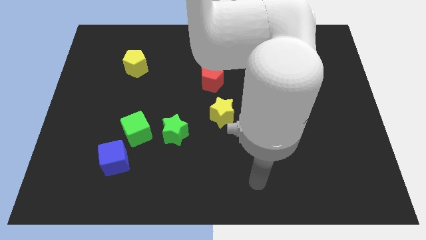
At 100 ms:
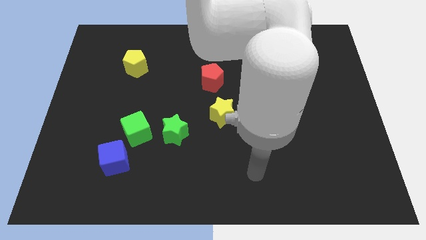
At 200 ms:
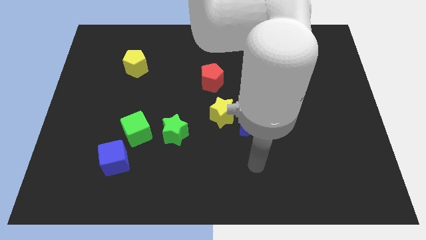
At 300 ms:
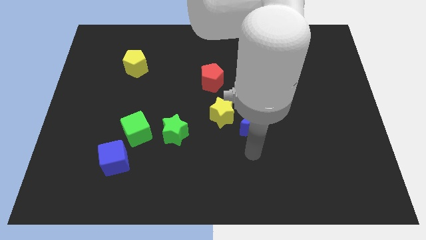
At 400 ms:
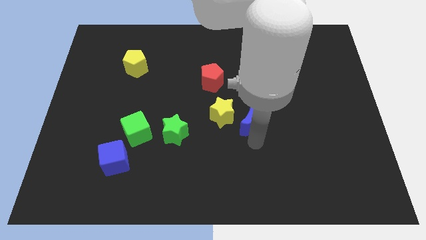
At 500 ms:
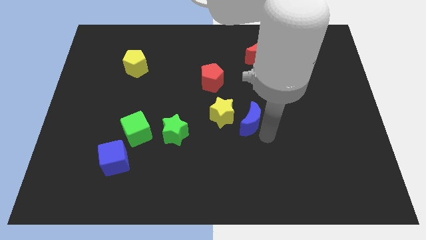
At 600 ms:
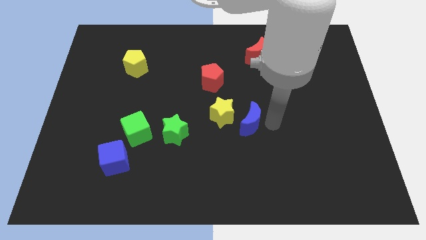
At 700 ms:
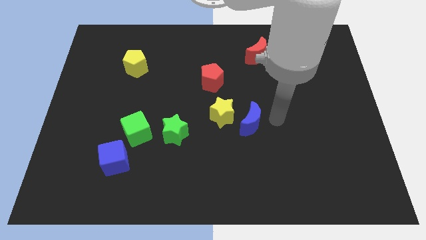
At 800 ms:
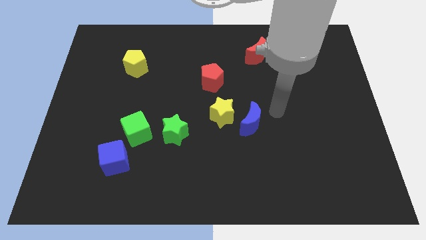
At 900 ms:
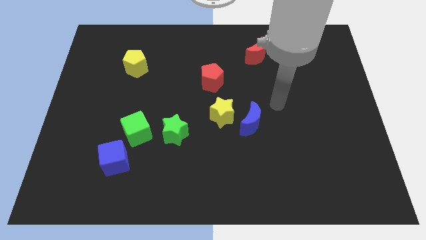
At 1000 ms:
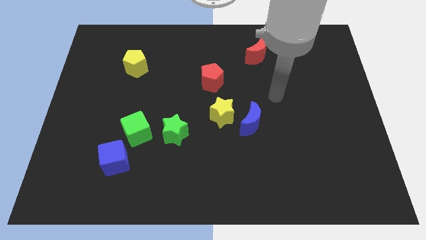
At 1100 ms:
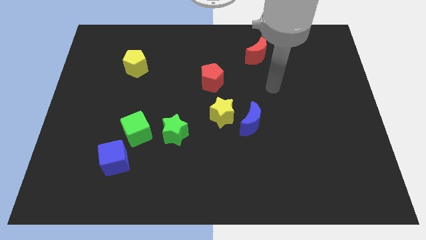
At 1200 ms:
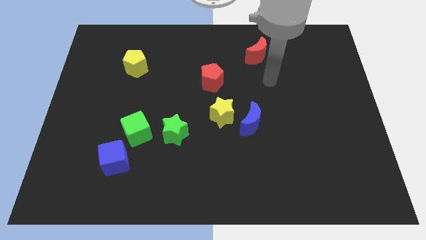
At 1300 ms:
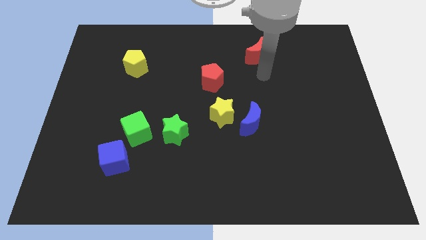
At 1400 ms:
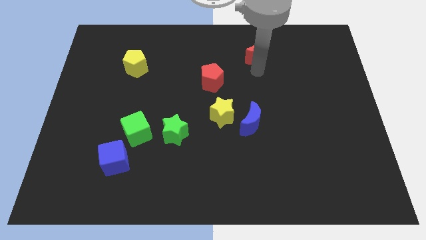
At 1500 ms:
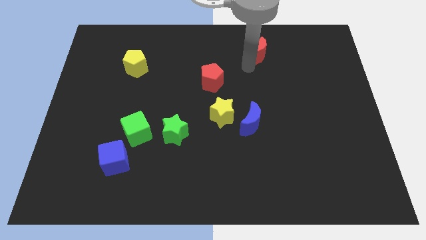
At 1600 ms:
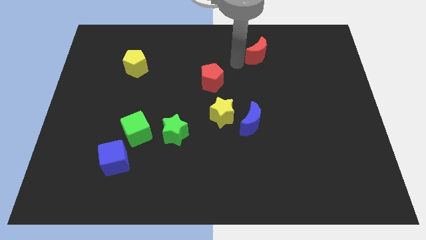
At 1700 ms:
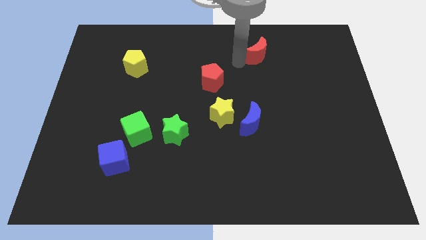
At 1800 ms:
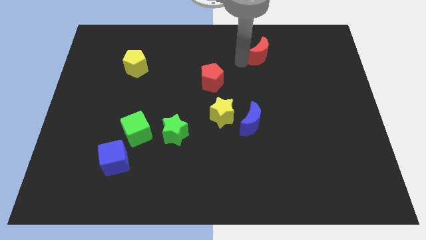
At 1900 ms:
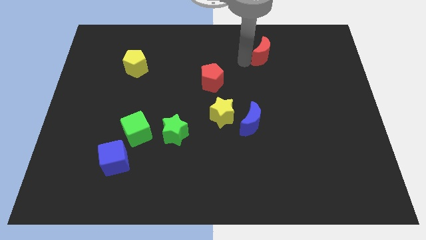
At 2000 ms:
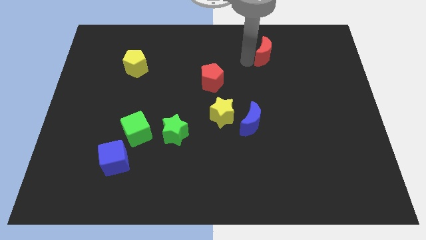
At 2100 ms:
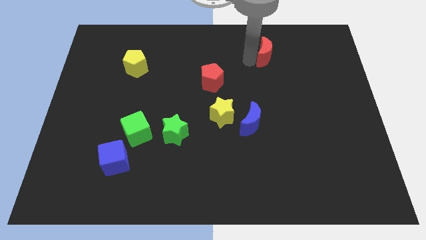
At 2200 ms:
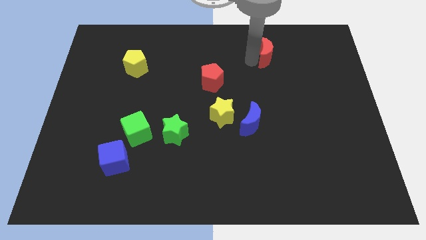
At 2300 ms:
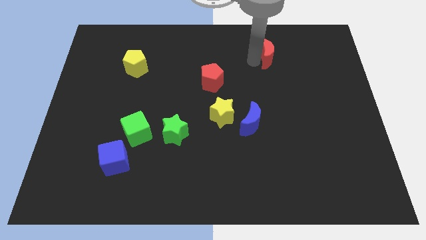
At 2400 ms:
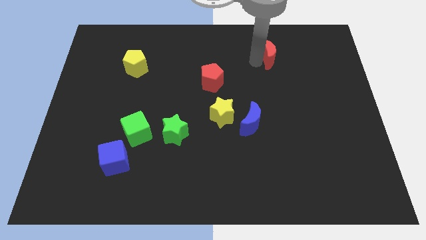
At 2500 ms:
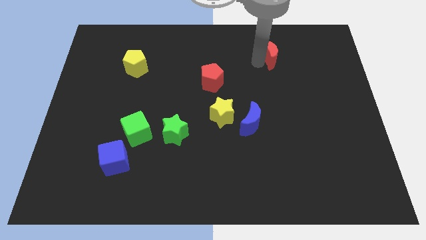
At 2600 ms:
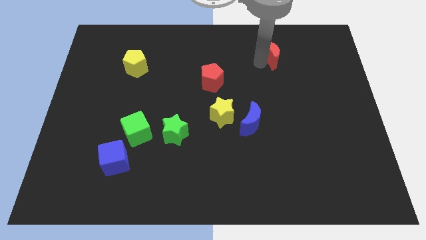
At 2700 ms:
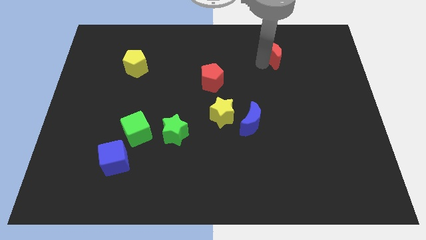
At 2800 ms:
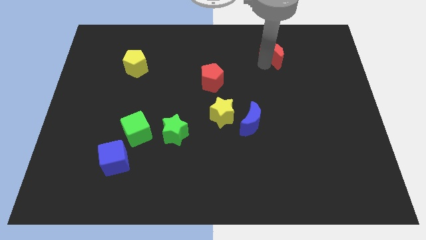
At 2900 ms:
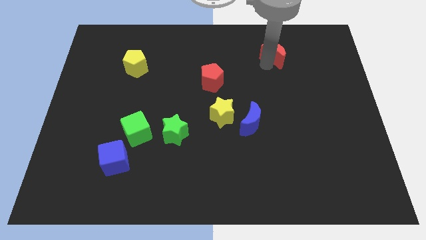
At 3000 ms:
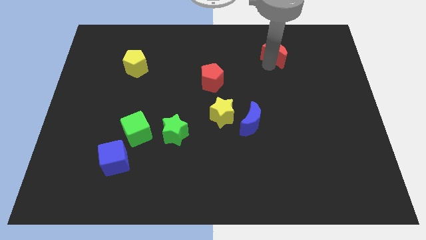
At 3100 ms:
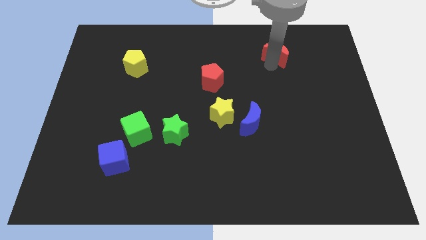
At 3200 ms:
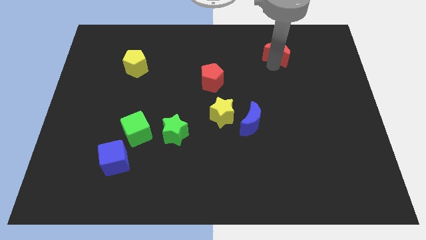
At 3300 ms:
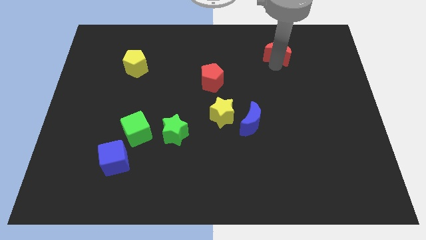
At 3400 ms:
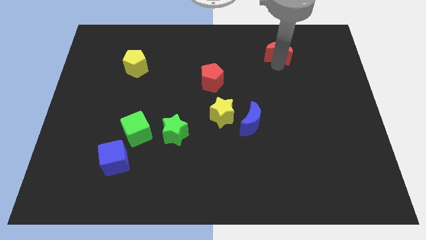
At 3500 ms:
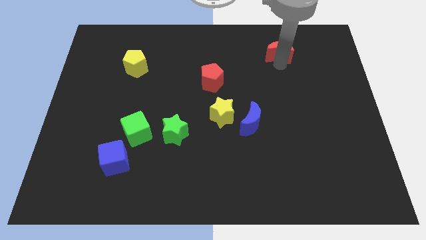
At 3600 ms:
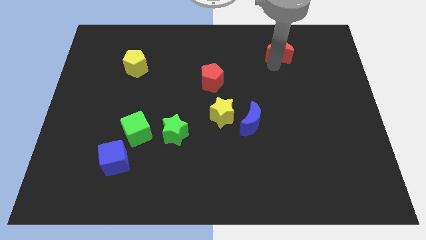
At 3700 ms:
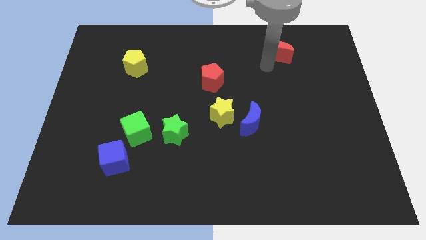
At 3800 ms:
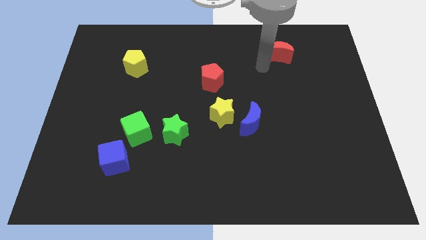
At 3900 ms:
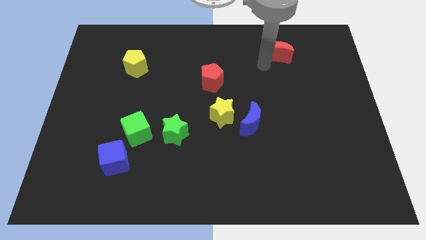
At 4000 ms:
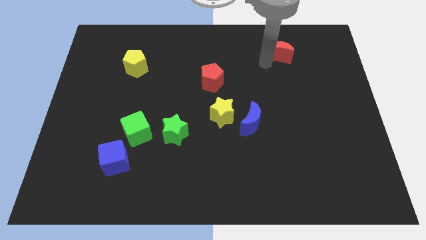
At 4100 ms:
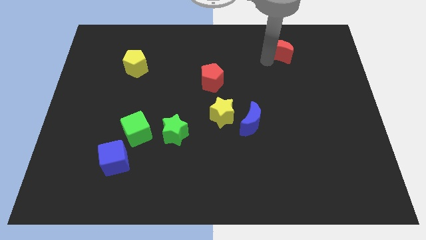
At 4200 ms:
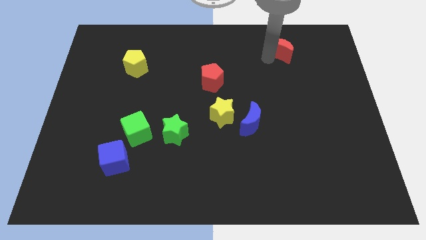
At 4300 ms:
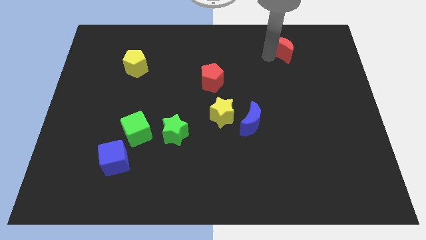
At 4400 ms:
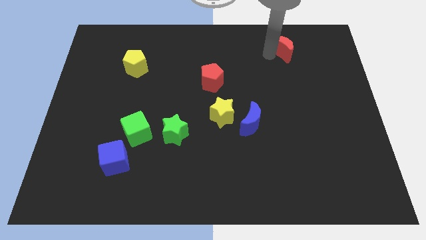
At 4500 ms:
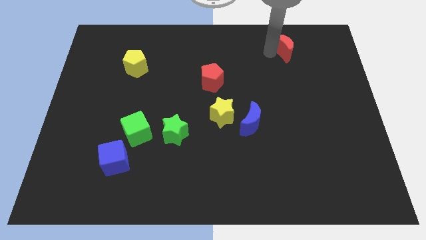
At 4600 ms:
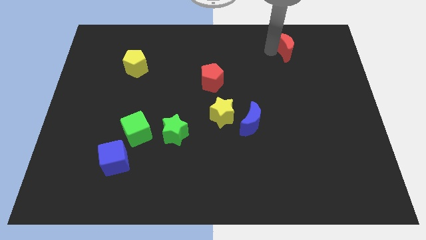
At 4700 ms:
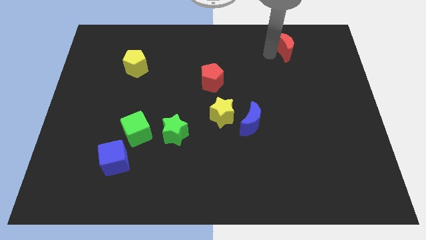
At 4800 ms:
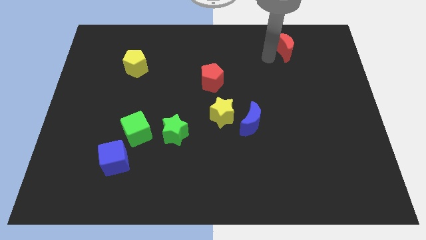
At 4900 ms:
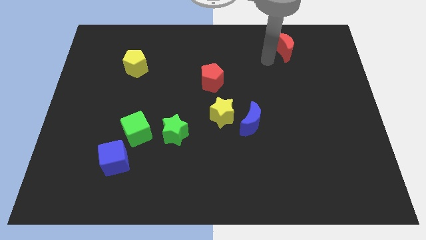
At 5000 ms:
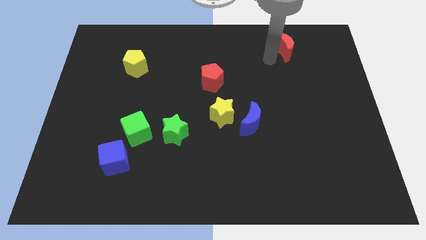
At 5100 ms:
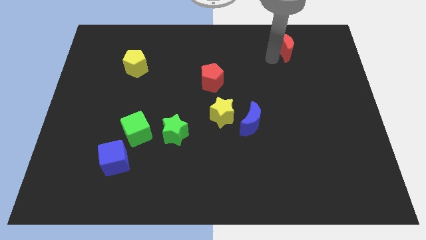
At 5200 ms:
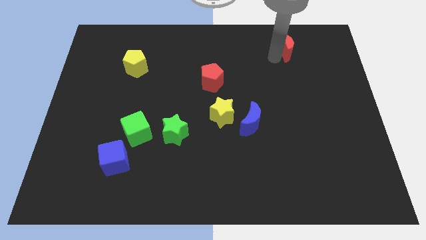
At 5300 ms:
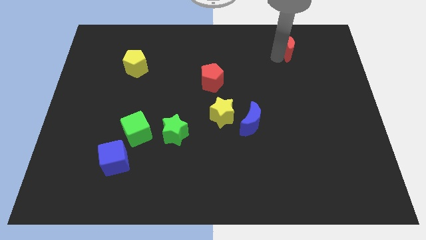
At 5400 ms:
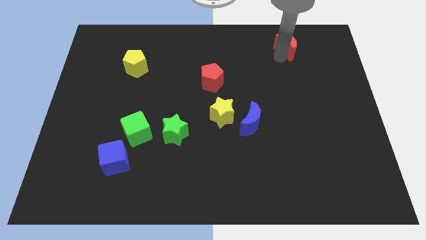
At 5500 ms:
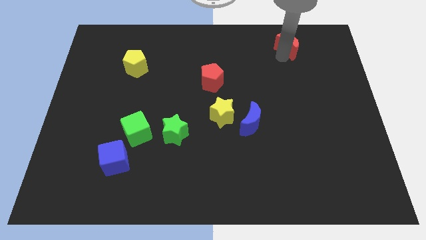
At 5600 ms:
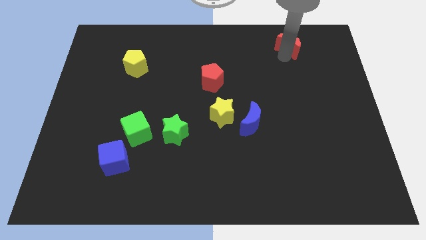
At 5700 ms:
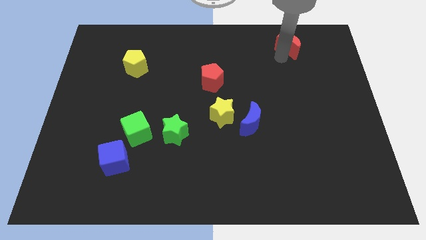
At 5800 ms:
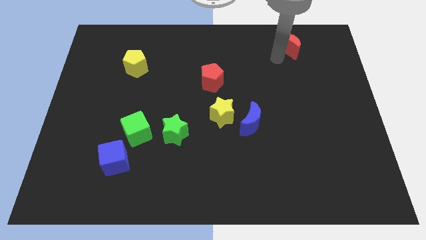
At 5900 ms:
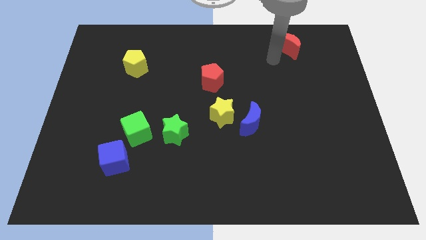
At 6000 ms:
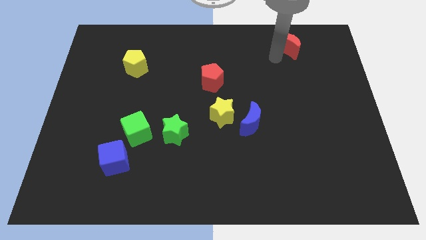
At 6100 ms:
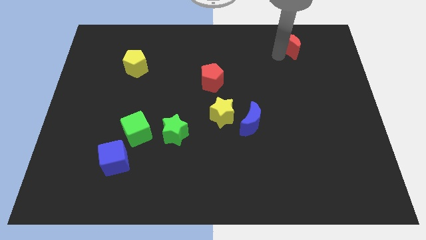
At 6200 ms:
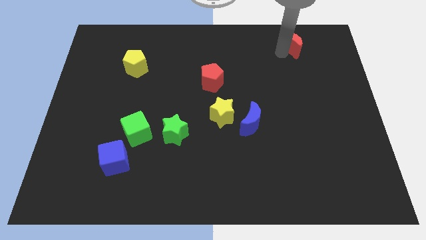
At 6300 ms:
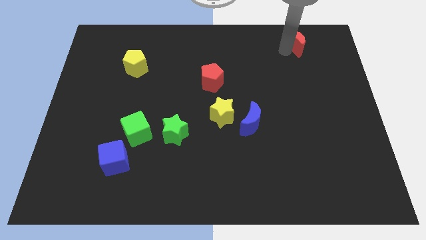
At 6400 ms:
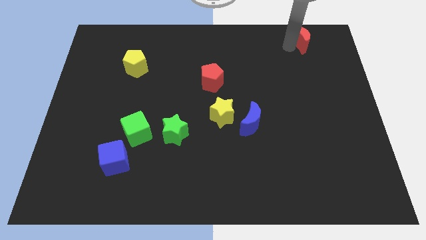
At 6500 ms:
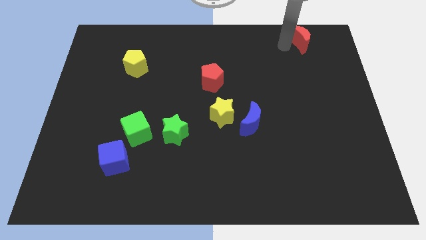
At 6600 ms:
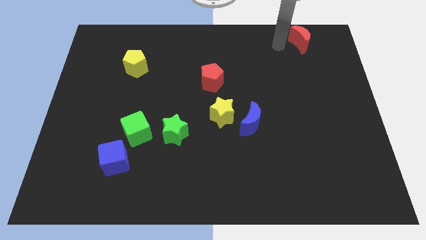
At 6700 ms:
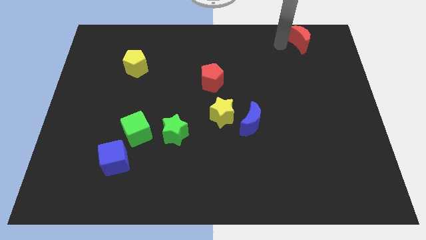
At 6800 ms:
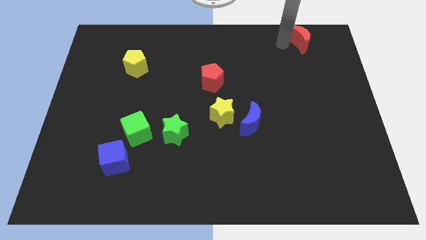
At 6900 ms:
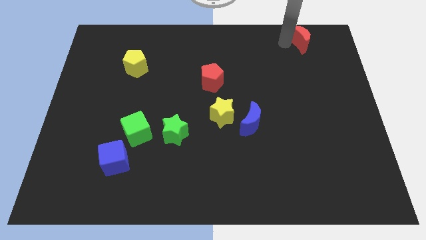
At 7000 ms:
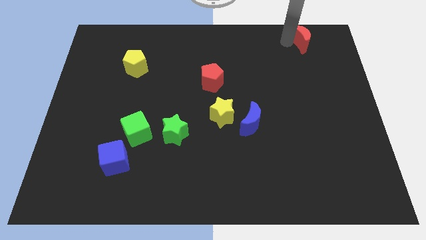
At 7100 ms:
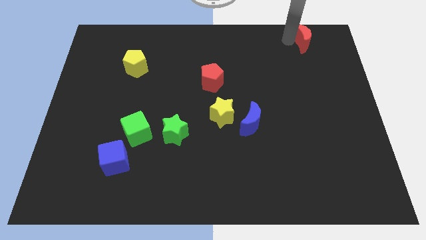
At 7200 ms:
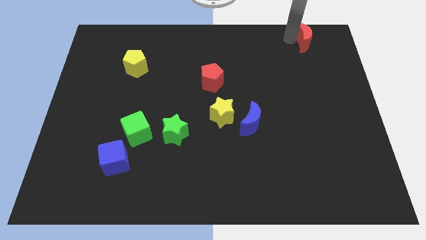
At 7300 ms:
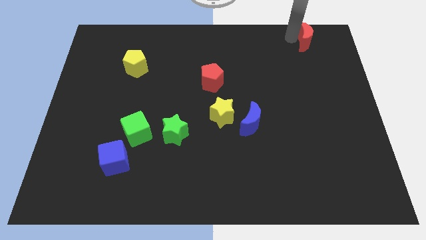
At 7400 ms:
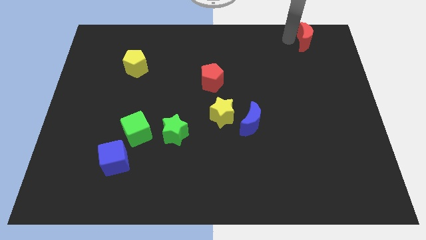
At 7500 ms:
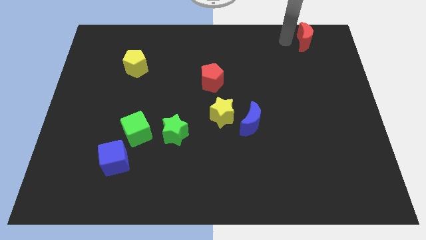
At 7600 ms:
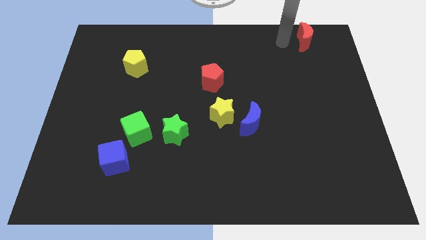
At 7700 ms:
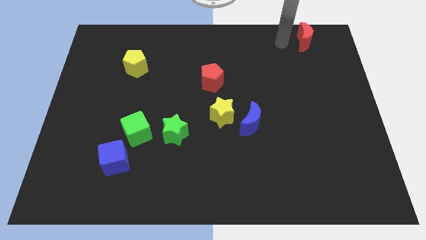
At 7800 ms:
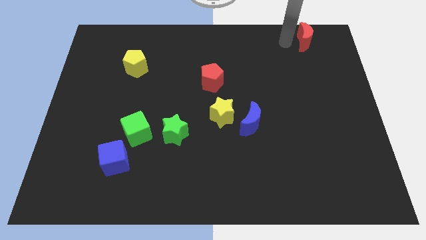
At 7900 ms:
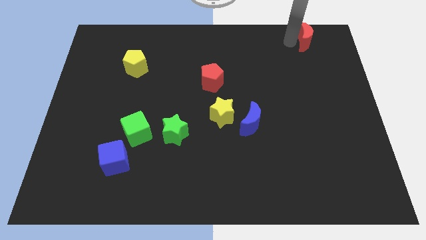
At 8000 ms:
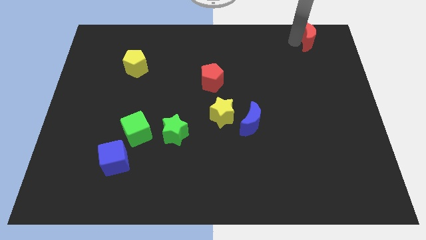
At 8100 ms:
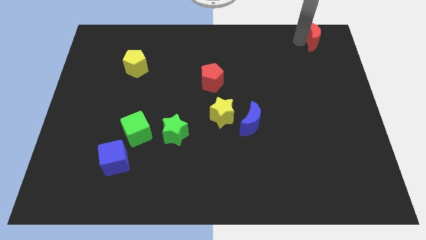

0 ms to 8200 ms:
push the red moon to the top right
